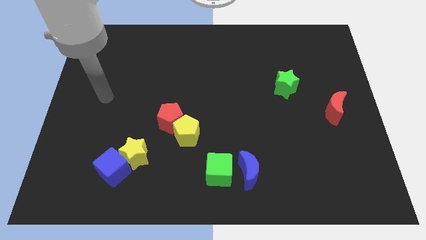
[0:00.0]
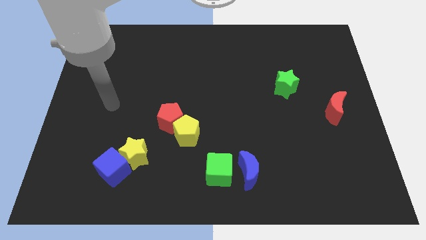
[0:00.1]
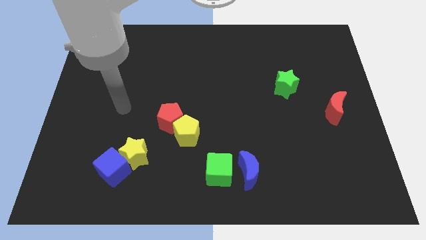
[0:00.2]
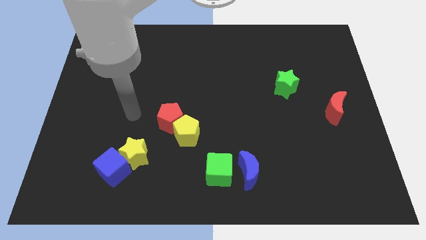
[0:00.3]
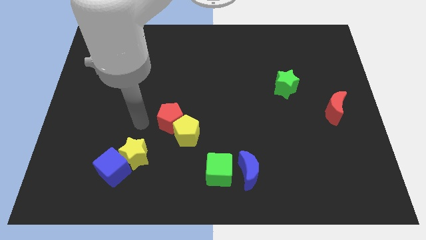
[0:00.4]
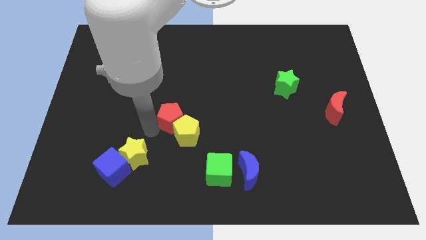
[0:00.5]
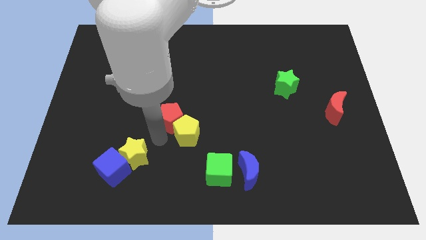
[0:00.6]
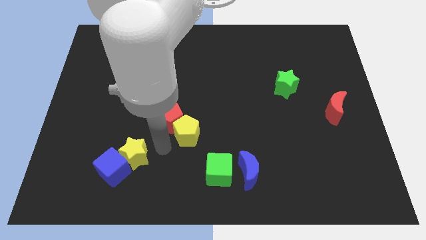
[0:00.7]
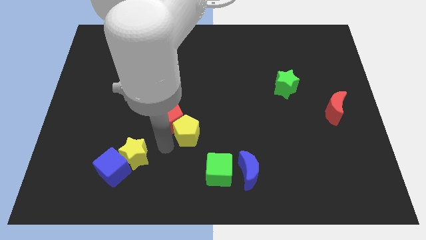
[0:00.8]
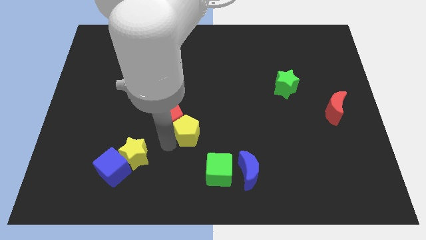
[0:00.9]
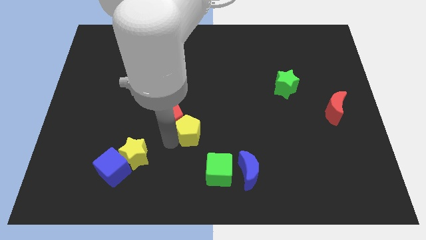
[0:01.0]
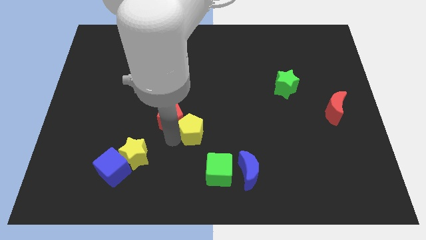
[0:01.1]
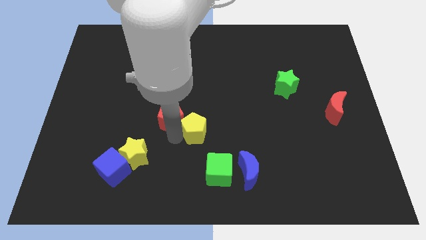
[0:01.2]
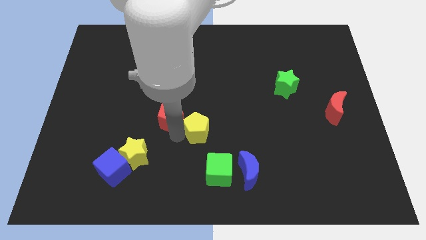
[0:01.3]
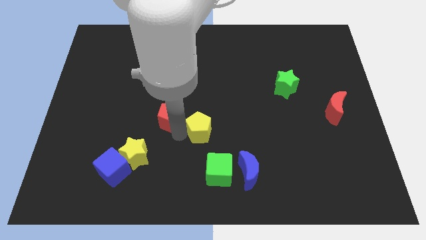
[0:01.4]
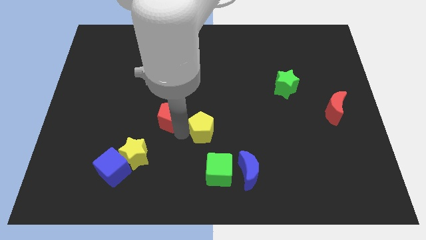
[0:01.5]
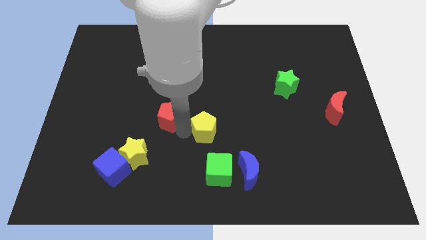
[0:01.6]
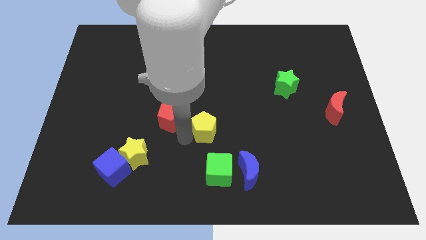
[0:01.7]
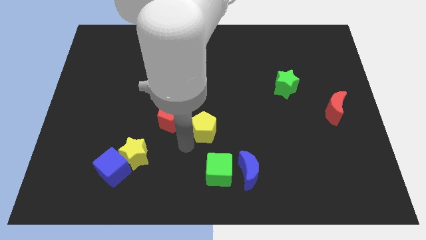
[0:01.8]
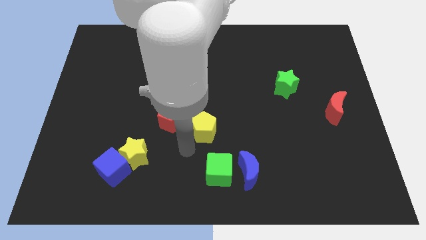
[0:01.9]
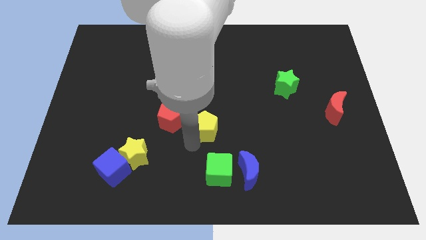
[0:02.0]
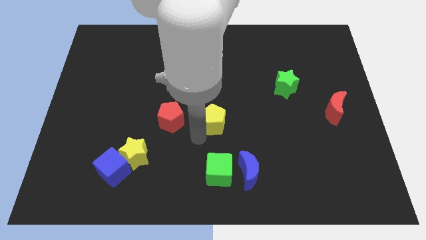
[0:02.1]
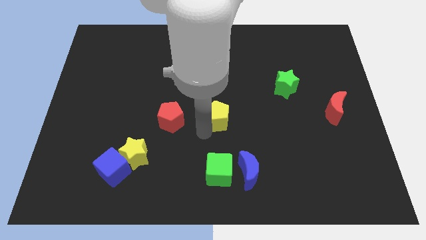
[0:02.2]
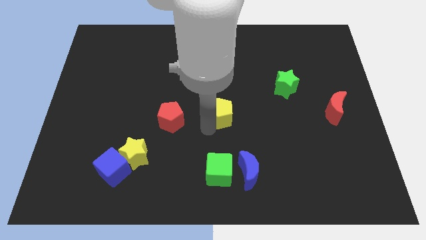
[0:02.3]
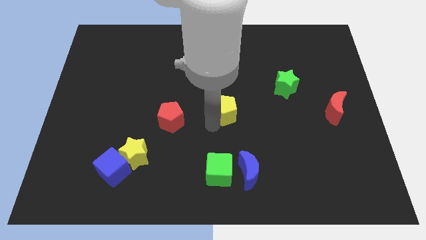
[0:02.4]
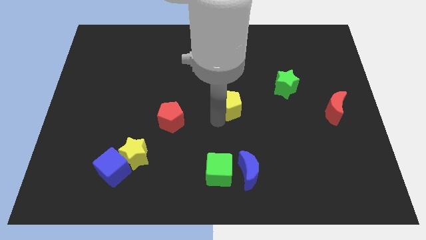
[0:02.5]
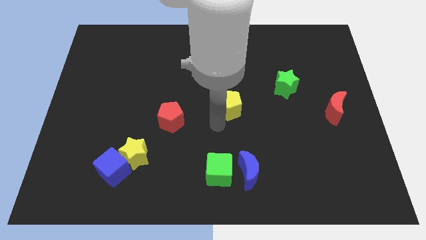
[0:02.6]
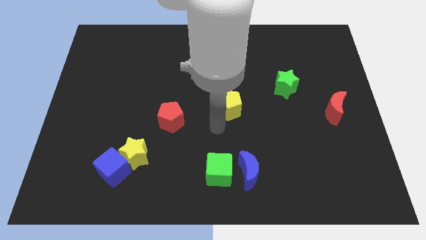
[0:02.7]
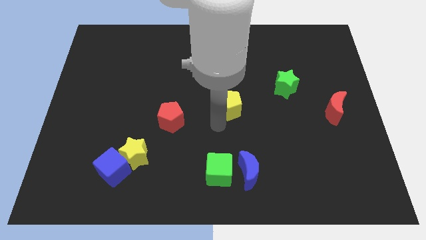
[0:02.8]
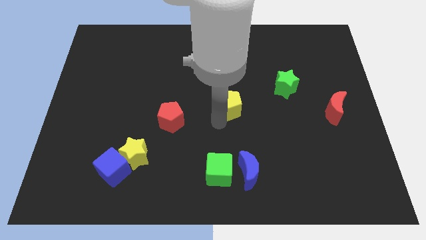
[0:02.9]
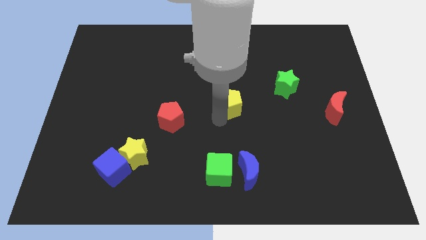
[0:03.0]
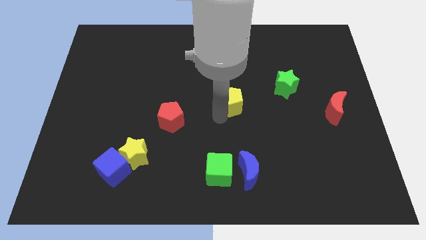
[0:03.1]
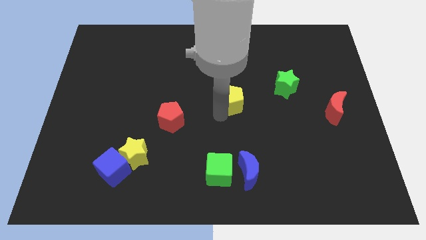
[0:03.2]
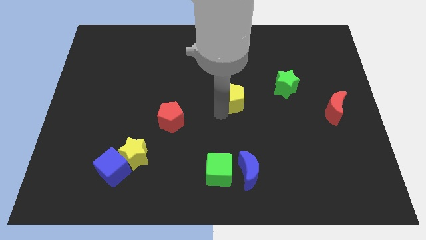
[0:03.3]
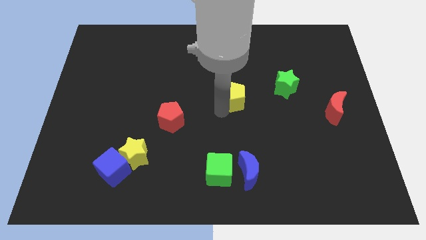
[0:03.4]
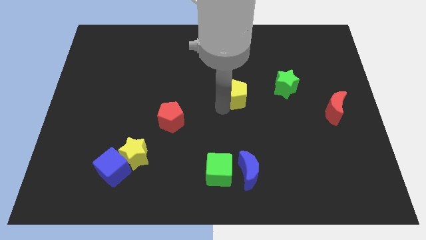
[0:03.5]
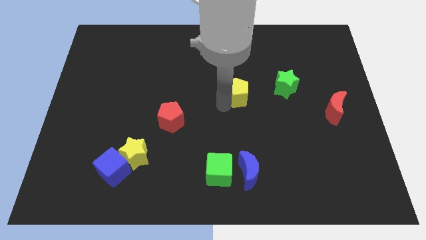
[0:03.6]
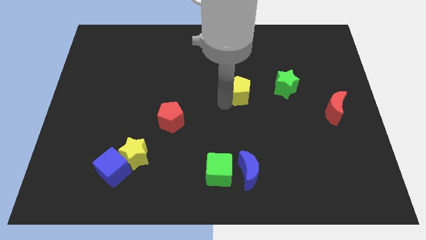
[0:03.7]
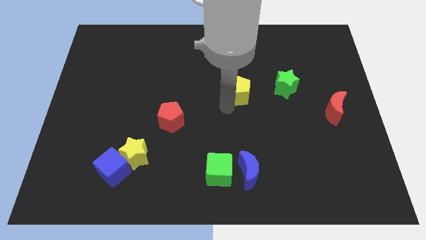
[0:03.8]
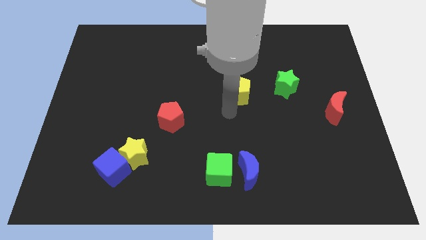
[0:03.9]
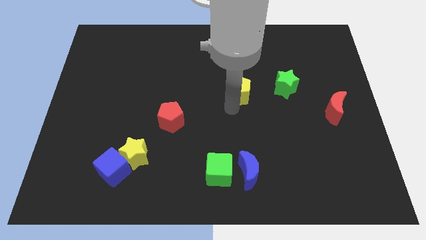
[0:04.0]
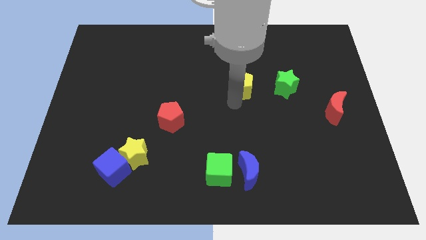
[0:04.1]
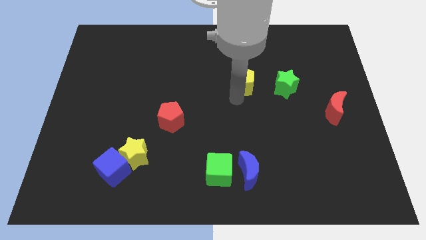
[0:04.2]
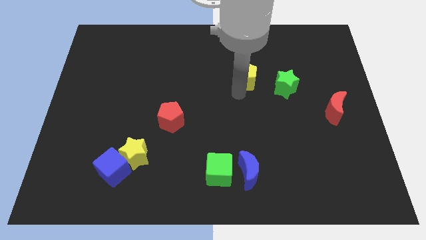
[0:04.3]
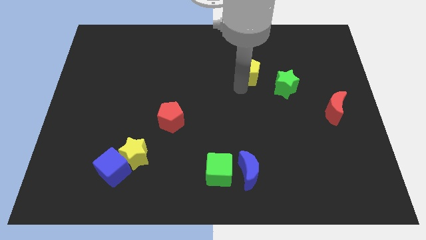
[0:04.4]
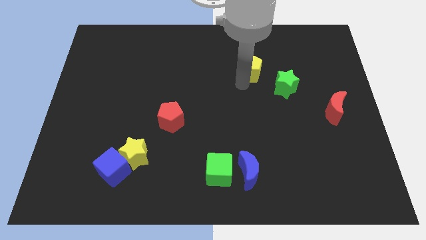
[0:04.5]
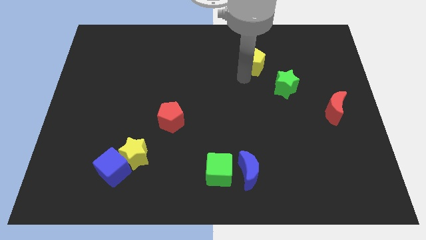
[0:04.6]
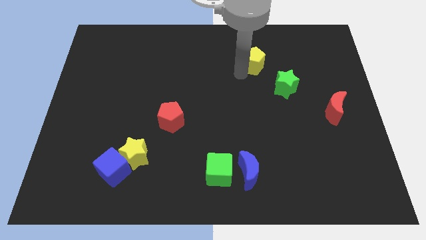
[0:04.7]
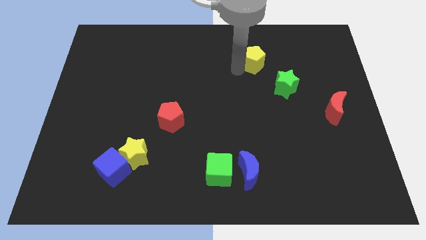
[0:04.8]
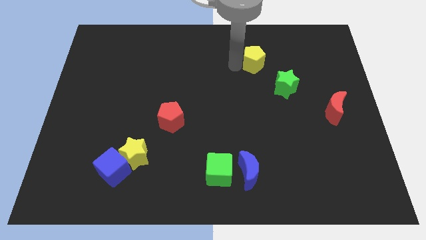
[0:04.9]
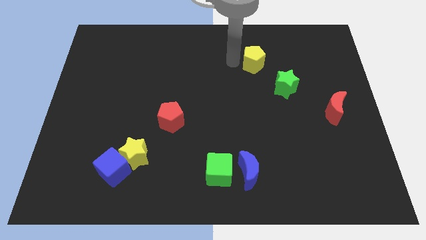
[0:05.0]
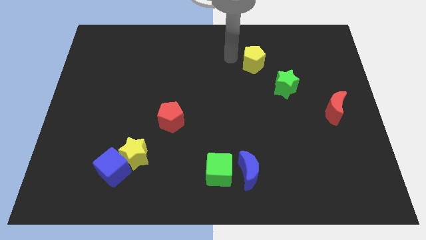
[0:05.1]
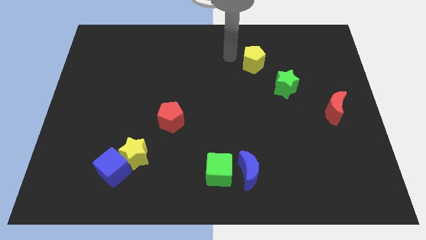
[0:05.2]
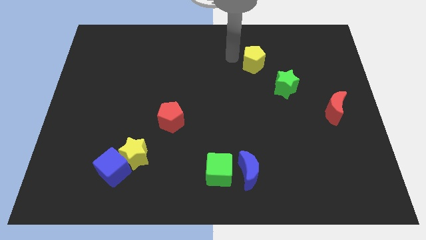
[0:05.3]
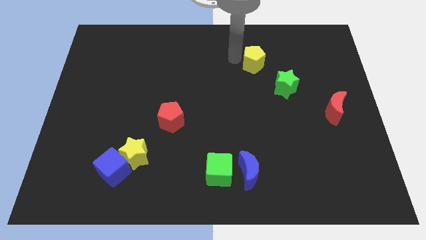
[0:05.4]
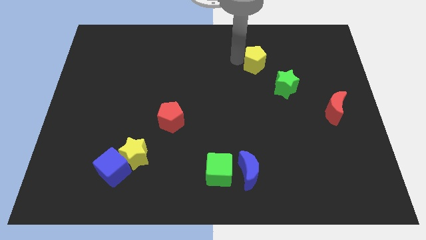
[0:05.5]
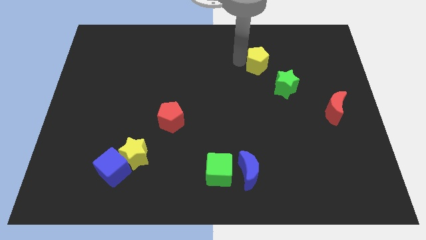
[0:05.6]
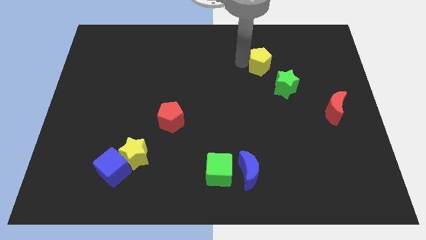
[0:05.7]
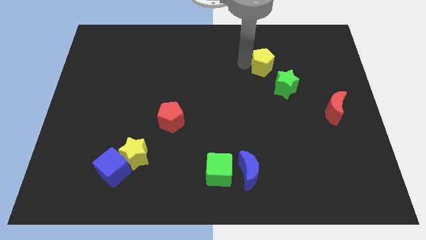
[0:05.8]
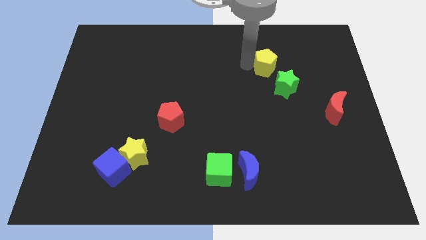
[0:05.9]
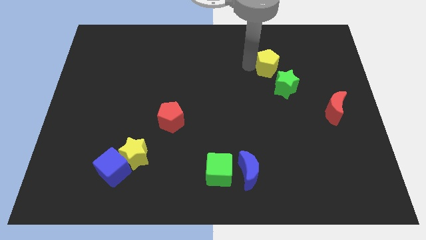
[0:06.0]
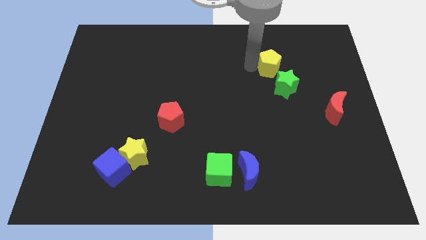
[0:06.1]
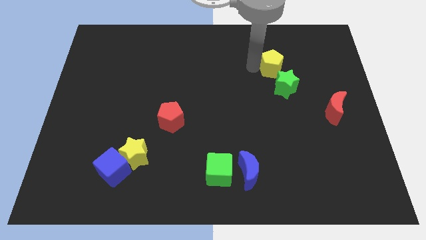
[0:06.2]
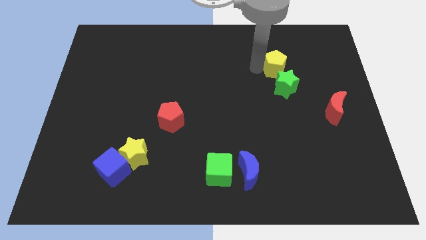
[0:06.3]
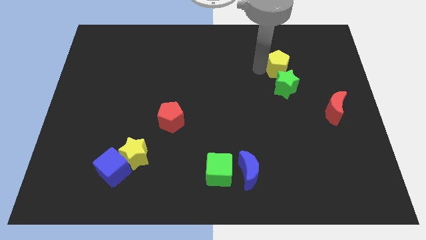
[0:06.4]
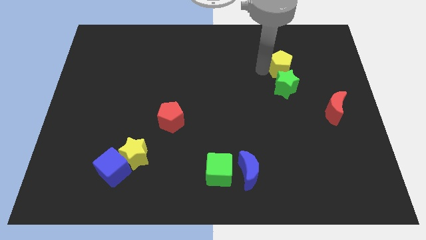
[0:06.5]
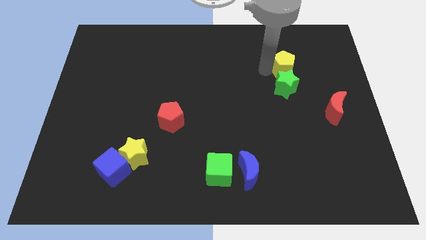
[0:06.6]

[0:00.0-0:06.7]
slide the yellow pentagon to the top right side of the green star

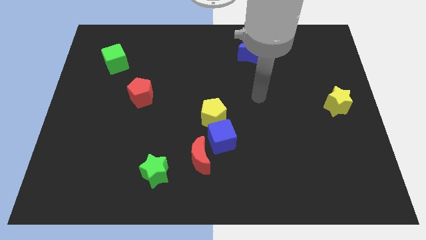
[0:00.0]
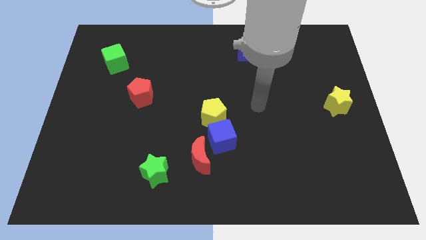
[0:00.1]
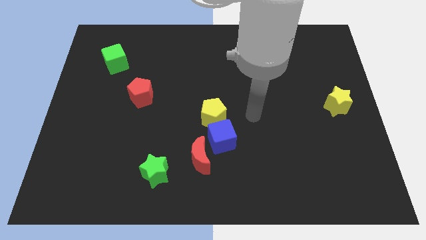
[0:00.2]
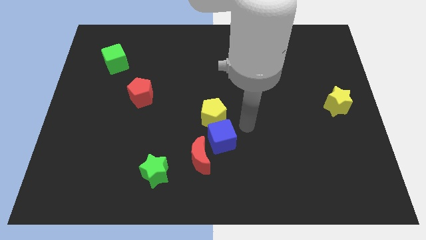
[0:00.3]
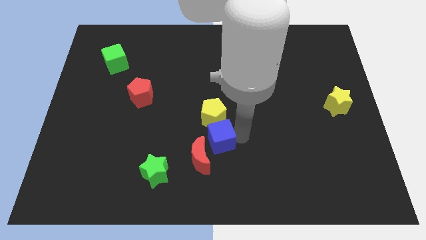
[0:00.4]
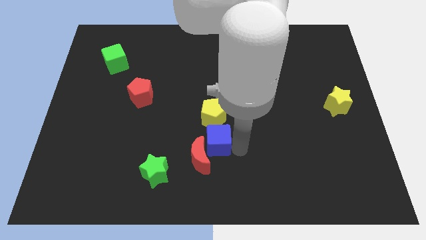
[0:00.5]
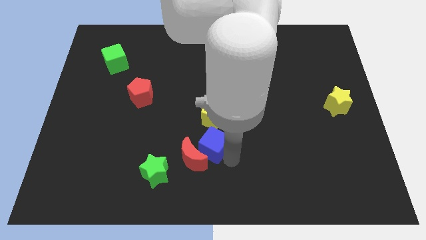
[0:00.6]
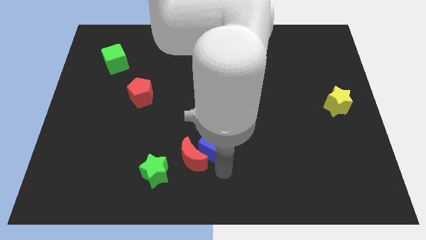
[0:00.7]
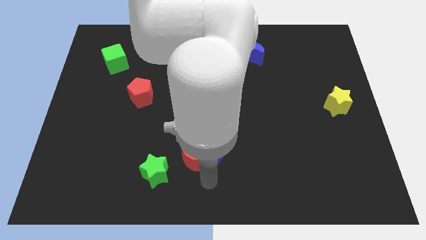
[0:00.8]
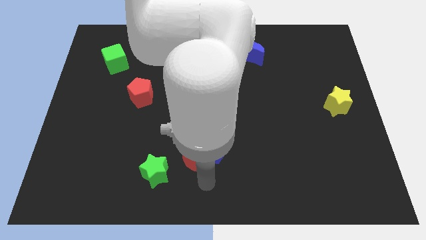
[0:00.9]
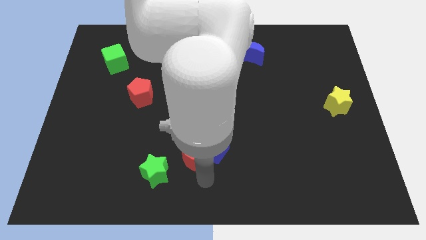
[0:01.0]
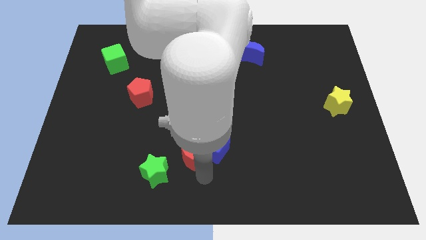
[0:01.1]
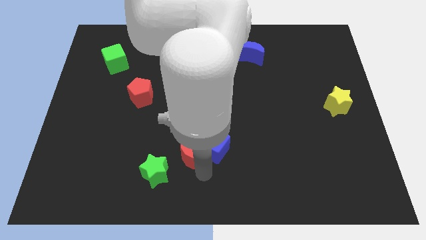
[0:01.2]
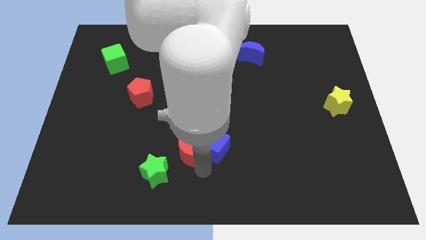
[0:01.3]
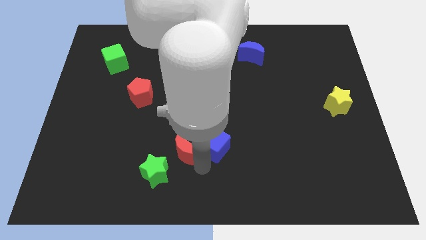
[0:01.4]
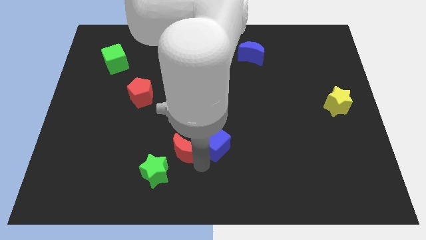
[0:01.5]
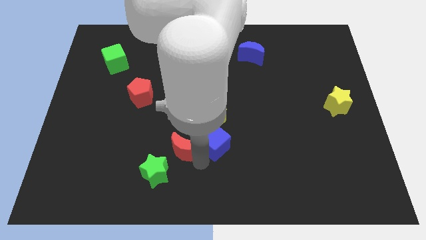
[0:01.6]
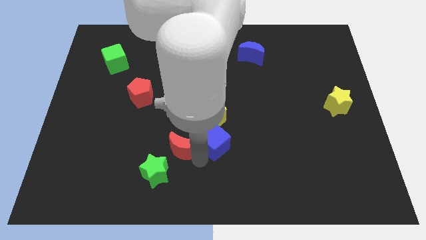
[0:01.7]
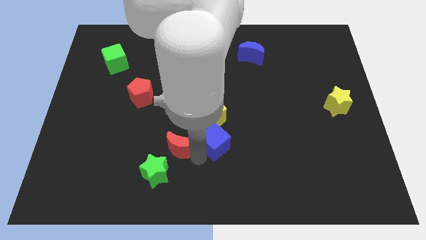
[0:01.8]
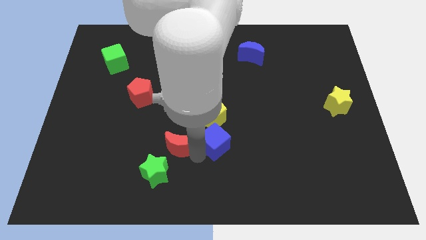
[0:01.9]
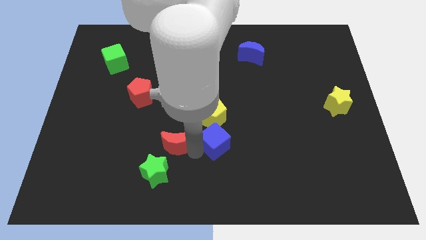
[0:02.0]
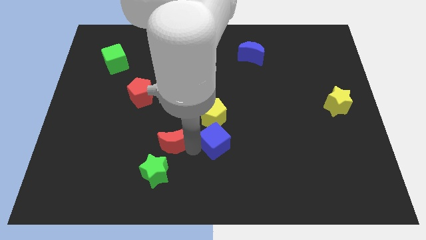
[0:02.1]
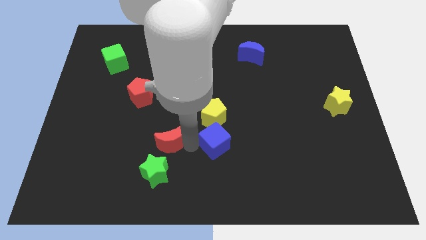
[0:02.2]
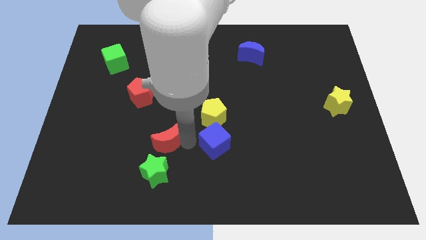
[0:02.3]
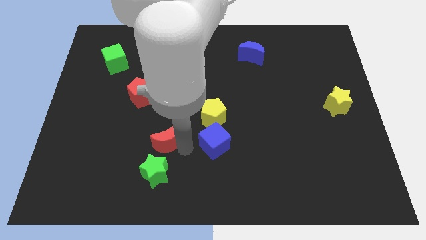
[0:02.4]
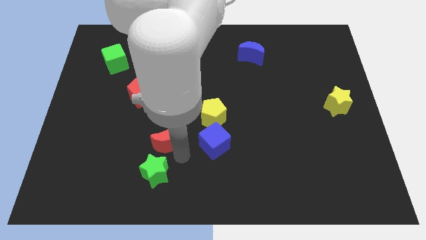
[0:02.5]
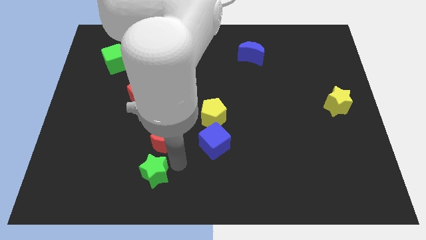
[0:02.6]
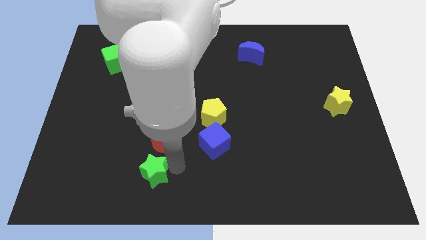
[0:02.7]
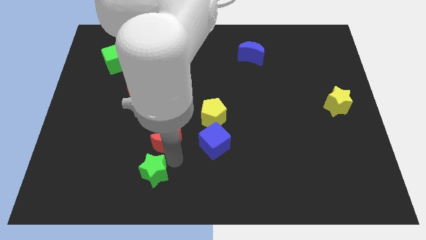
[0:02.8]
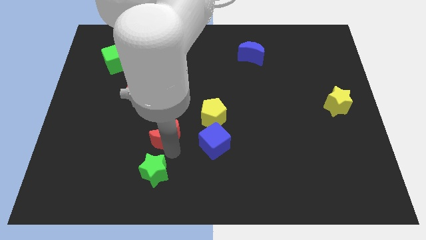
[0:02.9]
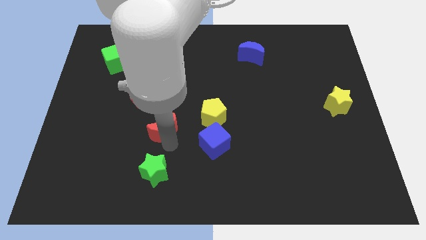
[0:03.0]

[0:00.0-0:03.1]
slide the red moon to the bottom right of the red pentagon
